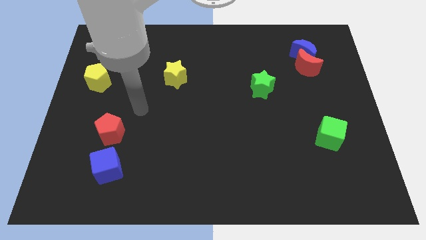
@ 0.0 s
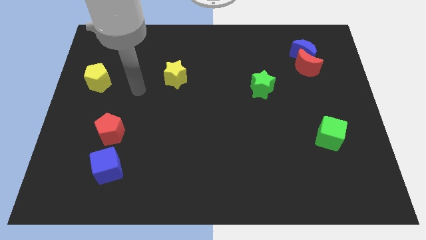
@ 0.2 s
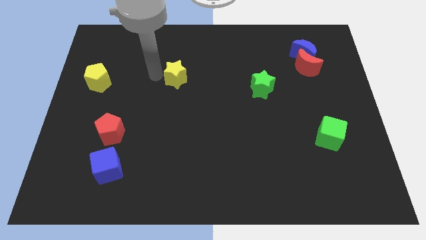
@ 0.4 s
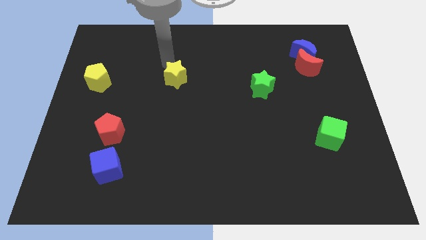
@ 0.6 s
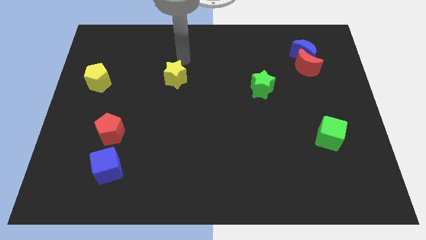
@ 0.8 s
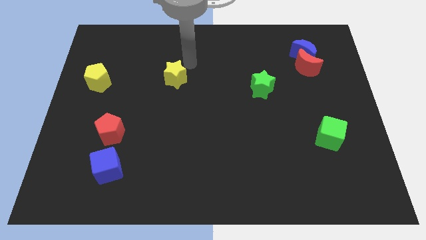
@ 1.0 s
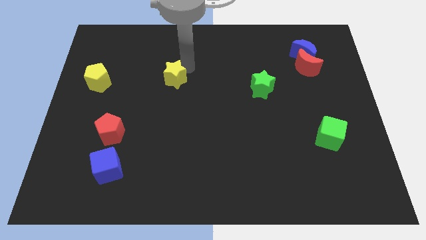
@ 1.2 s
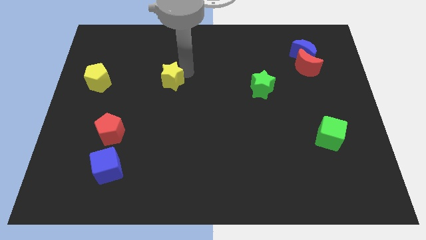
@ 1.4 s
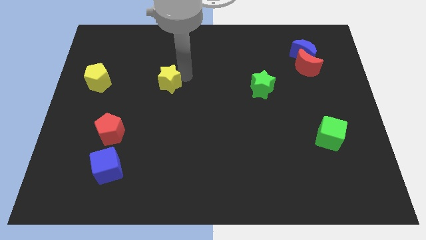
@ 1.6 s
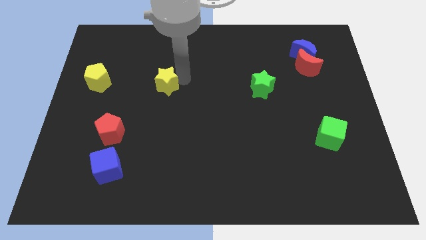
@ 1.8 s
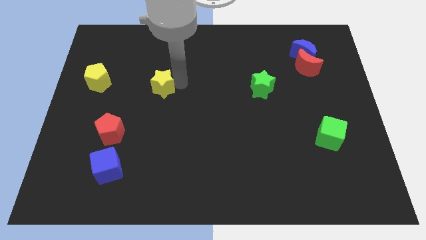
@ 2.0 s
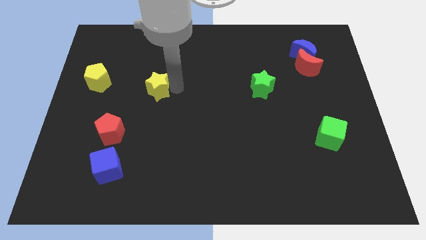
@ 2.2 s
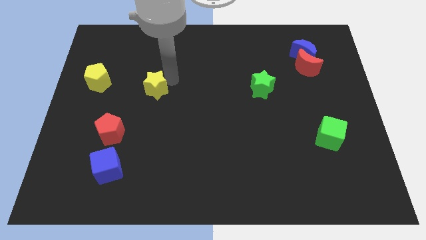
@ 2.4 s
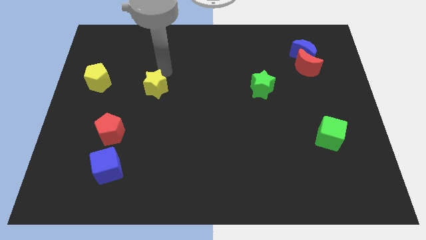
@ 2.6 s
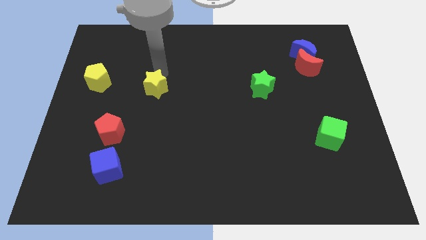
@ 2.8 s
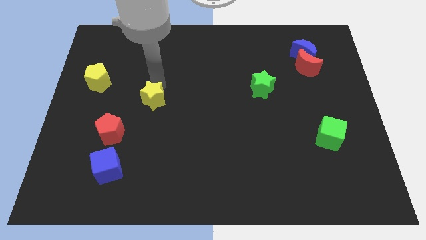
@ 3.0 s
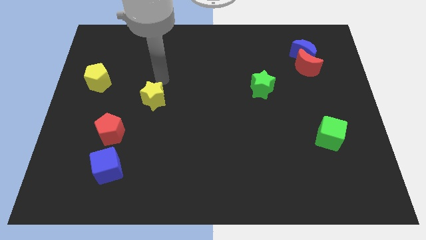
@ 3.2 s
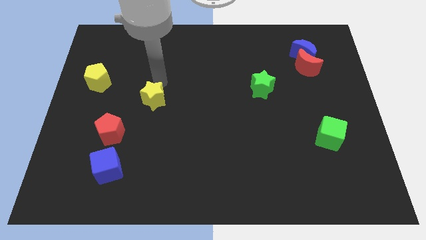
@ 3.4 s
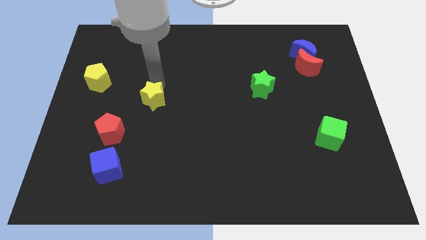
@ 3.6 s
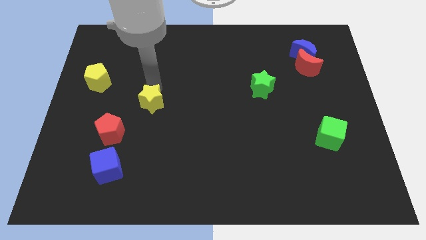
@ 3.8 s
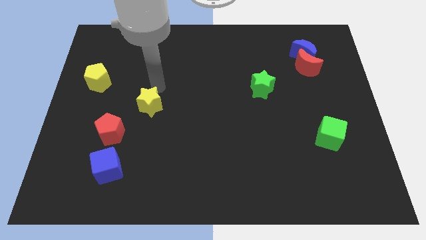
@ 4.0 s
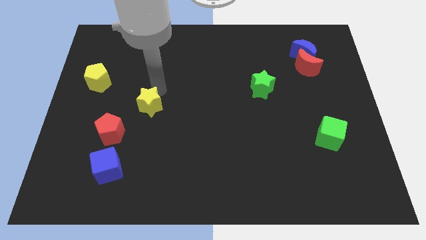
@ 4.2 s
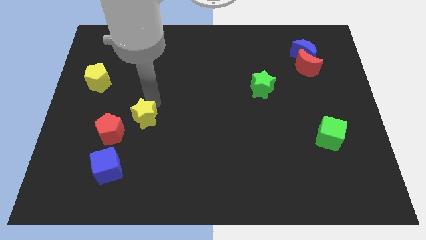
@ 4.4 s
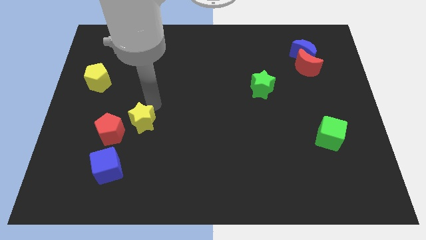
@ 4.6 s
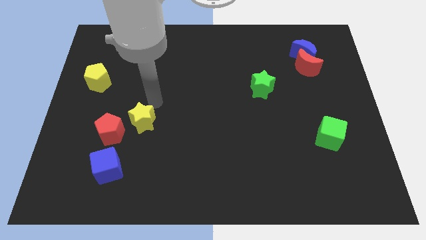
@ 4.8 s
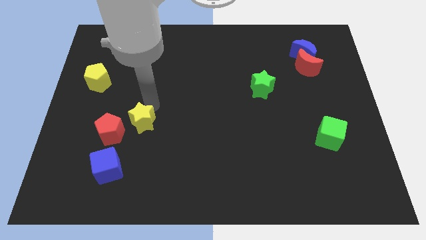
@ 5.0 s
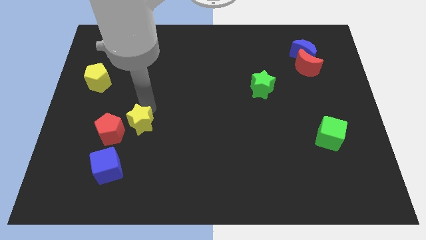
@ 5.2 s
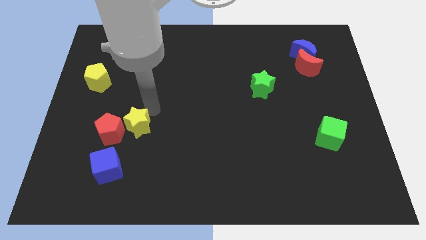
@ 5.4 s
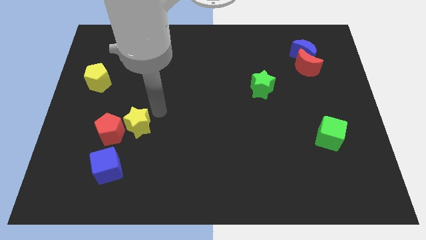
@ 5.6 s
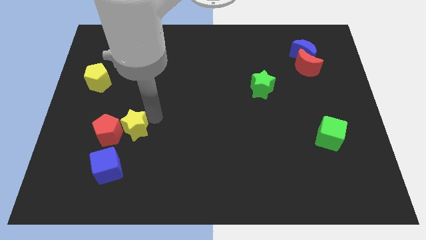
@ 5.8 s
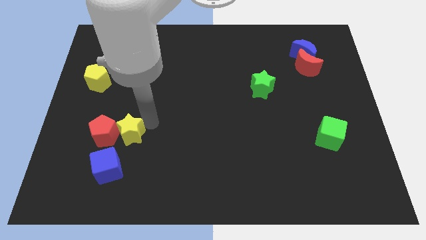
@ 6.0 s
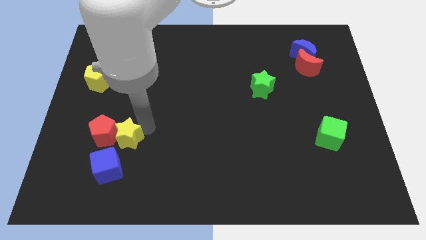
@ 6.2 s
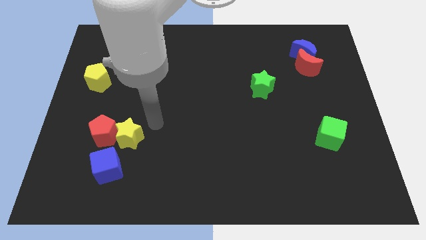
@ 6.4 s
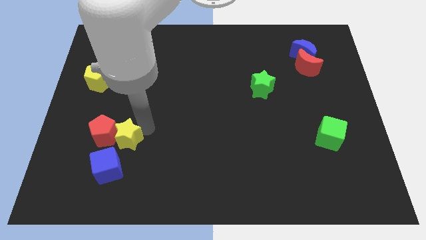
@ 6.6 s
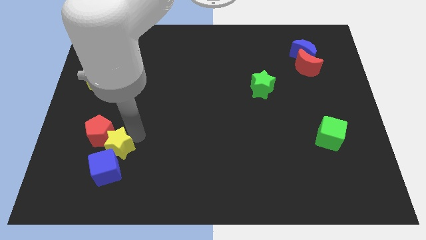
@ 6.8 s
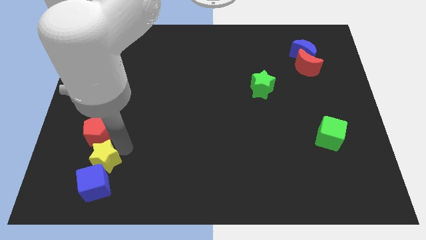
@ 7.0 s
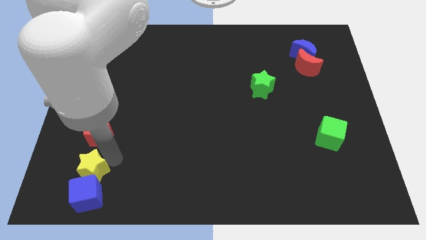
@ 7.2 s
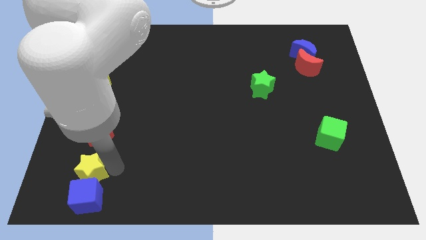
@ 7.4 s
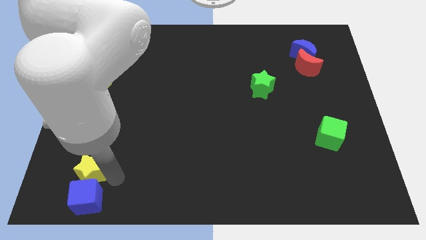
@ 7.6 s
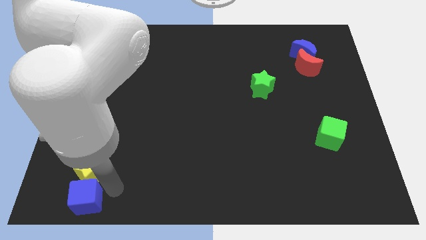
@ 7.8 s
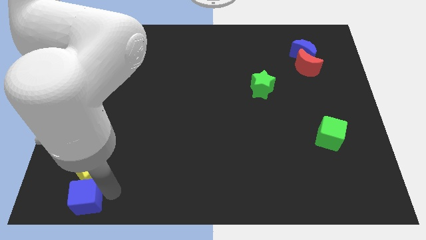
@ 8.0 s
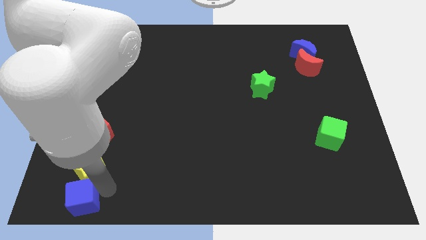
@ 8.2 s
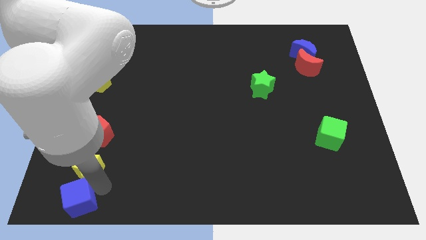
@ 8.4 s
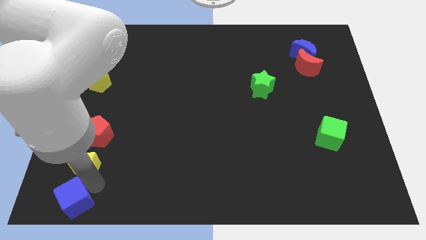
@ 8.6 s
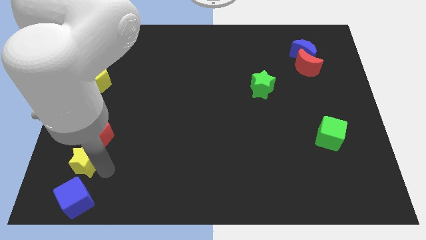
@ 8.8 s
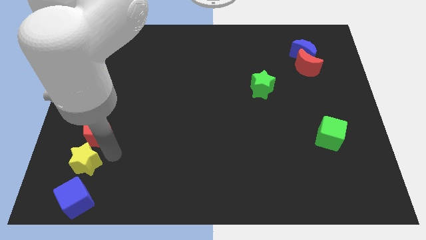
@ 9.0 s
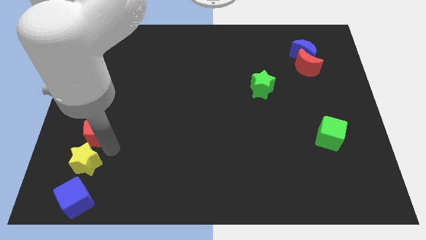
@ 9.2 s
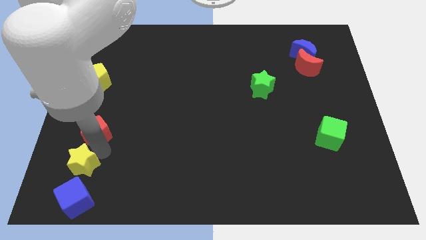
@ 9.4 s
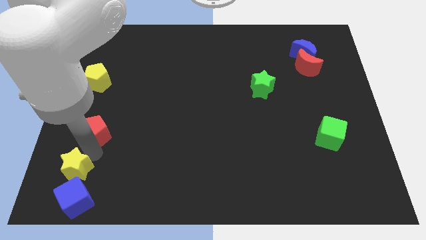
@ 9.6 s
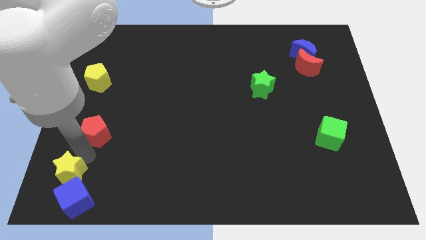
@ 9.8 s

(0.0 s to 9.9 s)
push the yellow star to the lower left corner

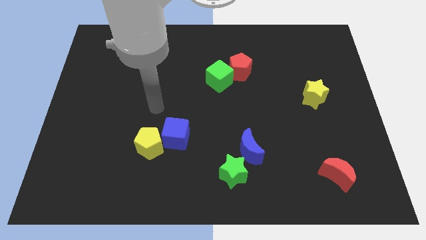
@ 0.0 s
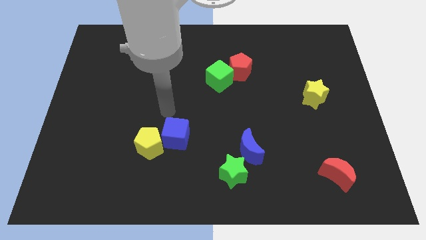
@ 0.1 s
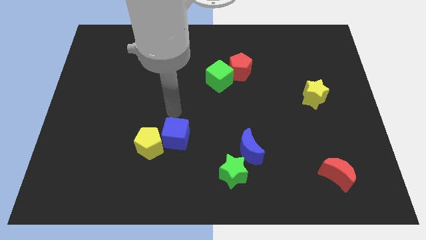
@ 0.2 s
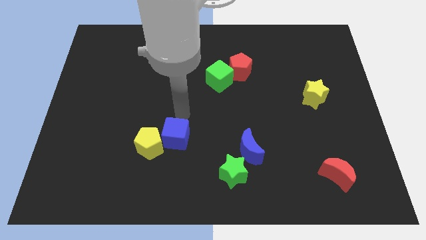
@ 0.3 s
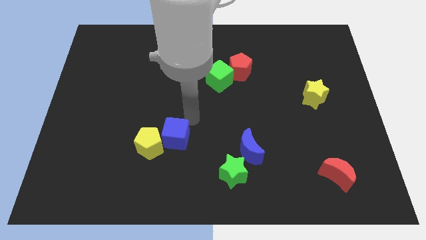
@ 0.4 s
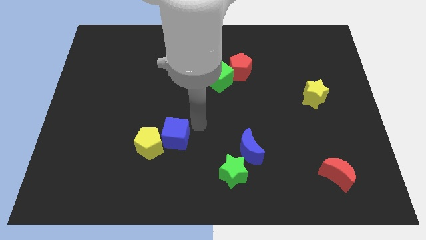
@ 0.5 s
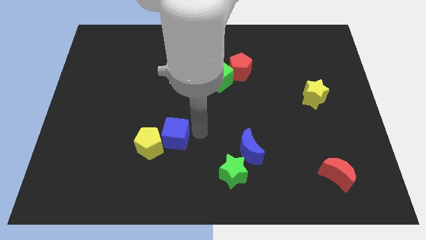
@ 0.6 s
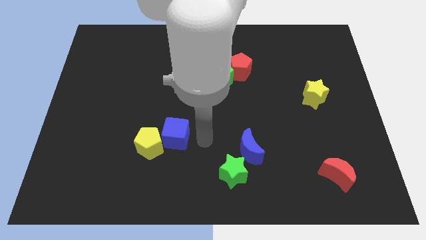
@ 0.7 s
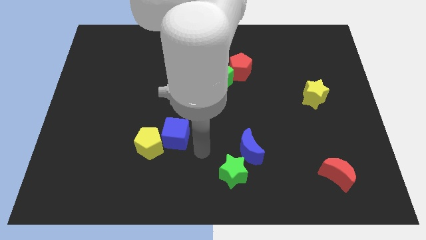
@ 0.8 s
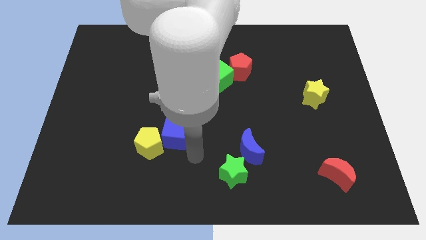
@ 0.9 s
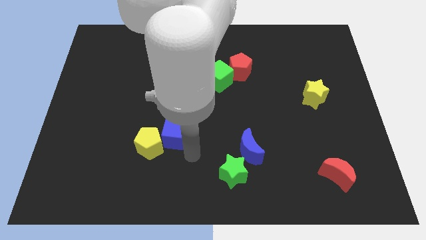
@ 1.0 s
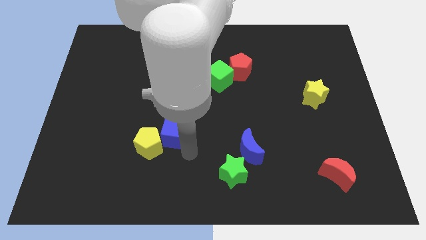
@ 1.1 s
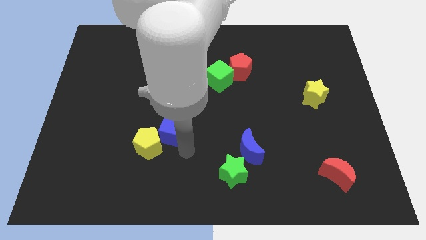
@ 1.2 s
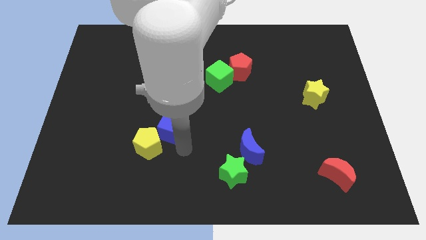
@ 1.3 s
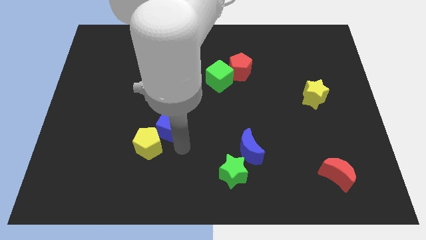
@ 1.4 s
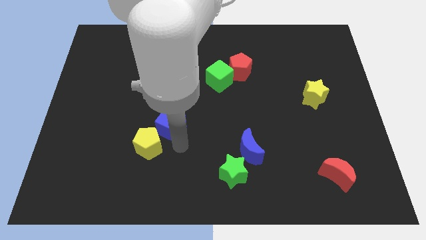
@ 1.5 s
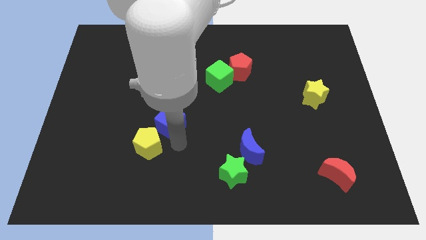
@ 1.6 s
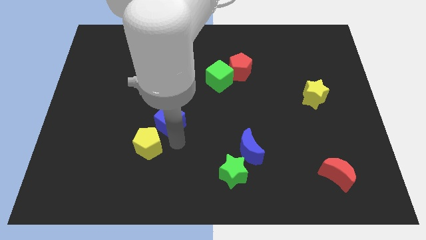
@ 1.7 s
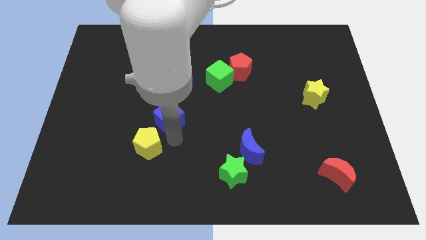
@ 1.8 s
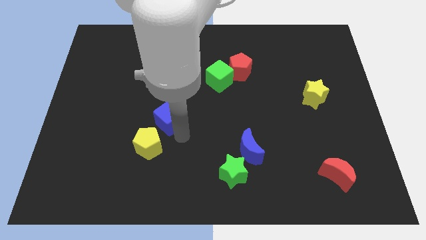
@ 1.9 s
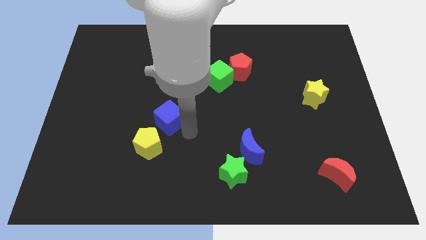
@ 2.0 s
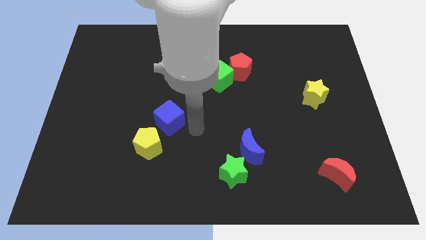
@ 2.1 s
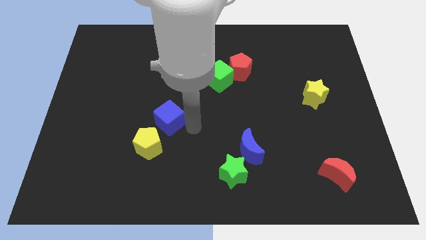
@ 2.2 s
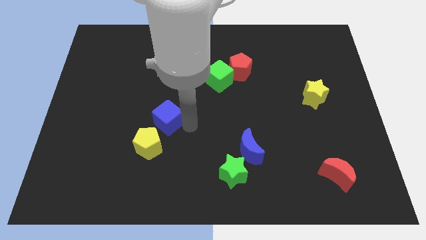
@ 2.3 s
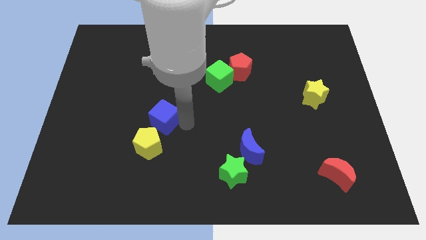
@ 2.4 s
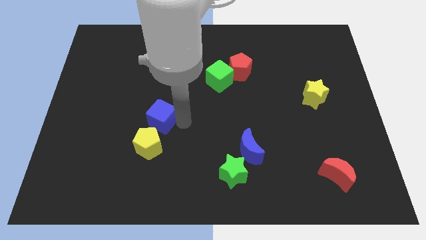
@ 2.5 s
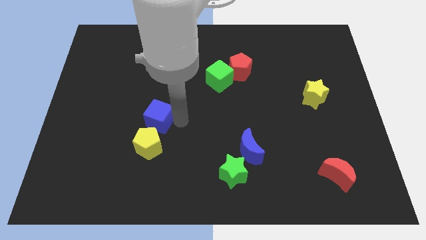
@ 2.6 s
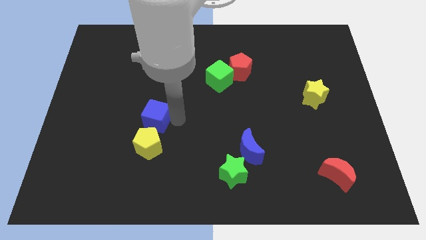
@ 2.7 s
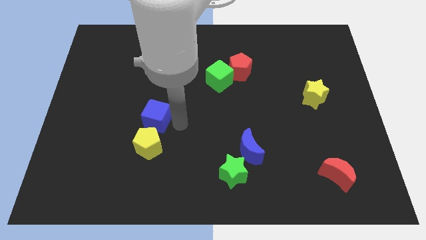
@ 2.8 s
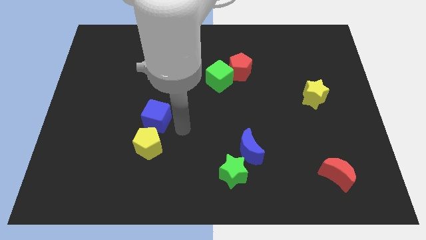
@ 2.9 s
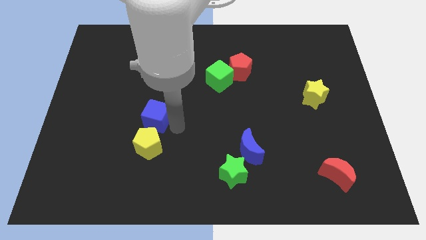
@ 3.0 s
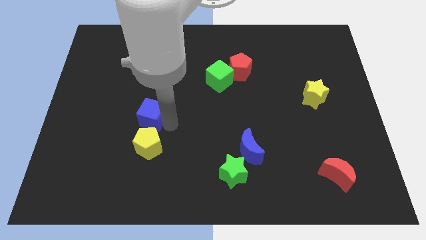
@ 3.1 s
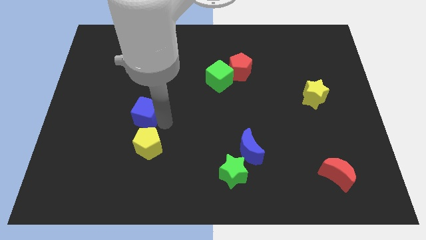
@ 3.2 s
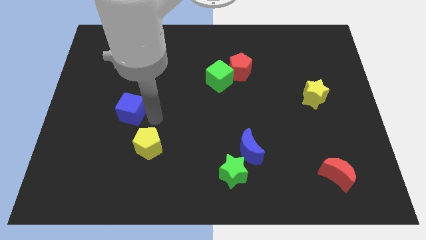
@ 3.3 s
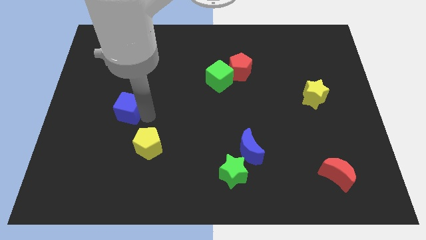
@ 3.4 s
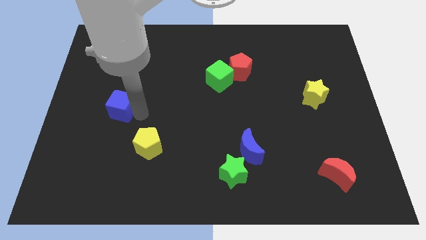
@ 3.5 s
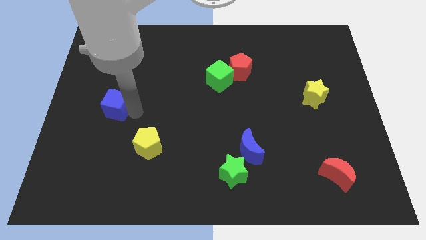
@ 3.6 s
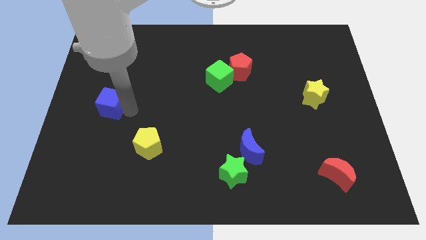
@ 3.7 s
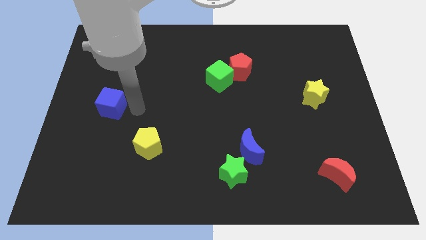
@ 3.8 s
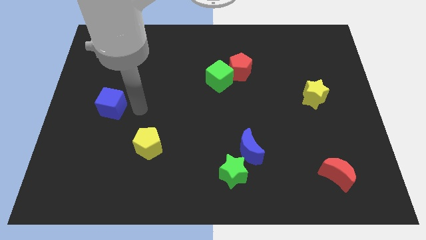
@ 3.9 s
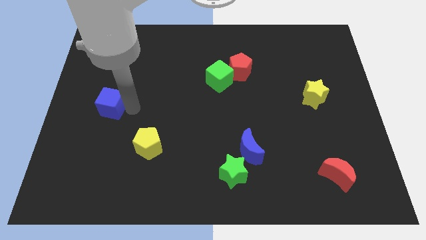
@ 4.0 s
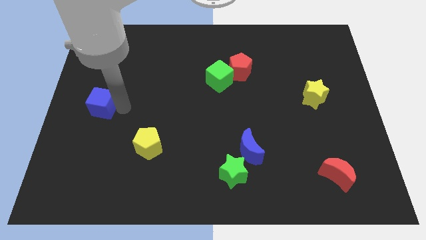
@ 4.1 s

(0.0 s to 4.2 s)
put the blue cube to the left side
